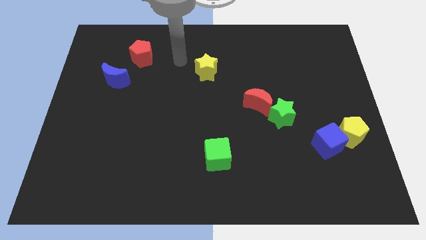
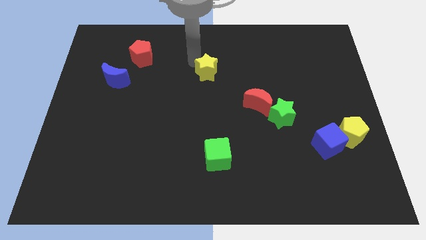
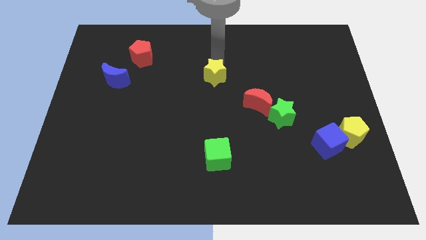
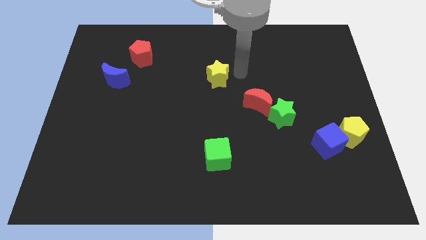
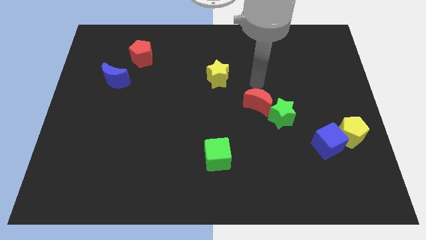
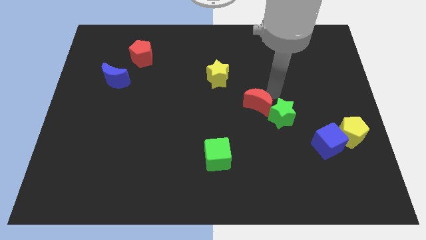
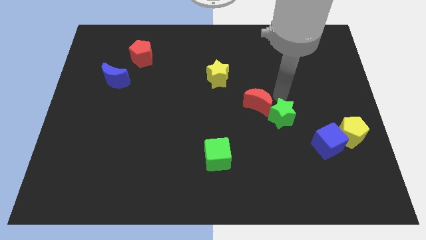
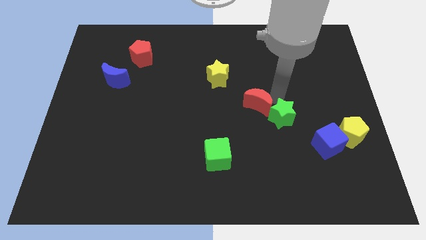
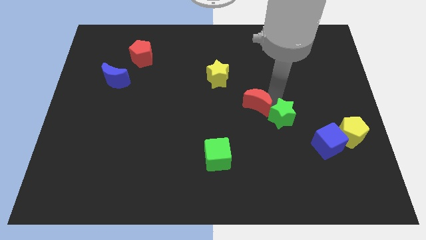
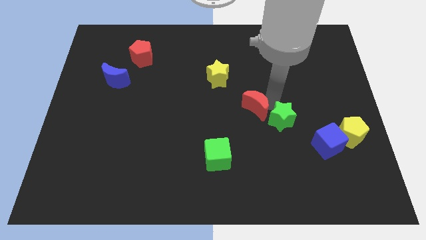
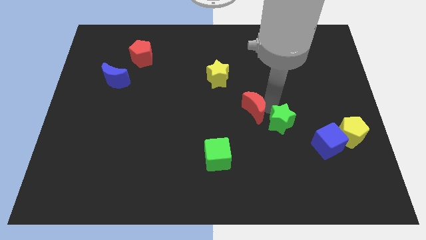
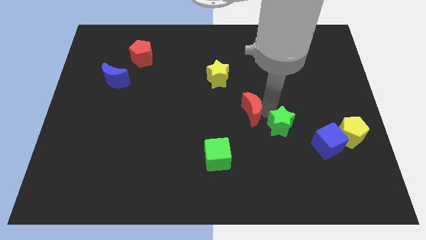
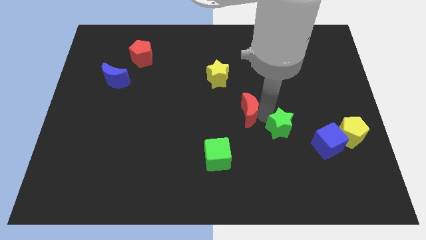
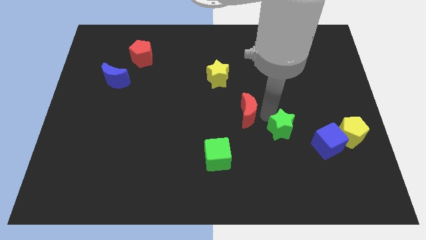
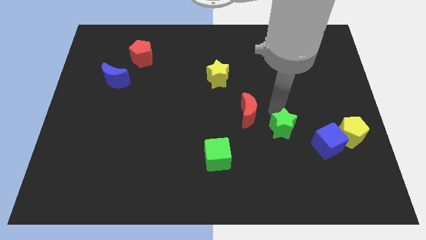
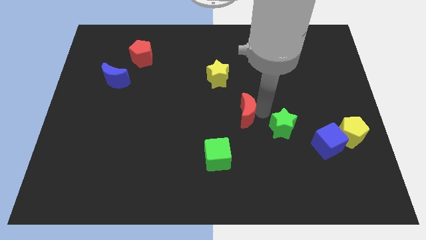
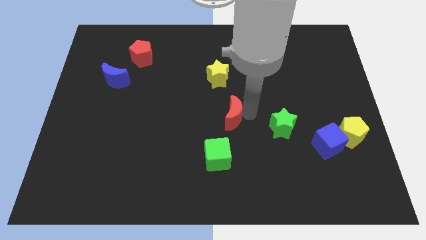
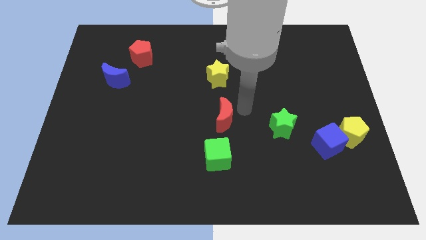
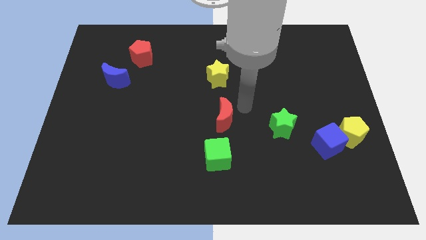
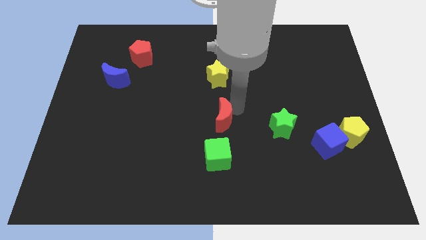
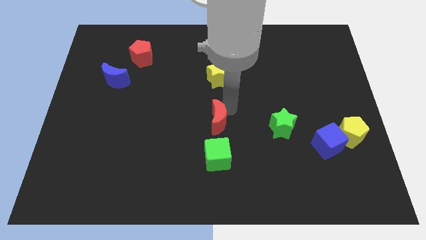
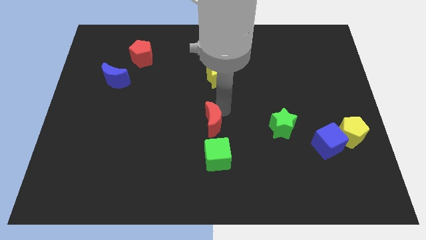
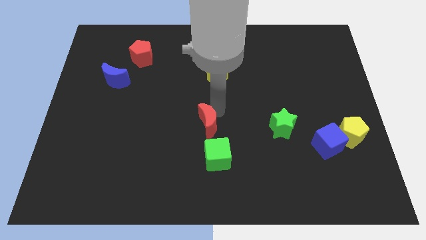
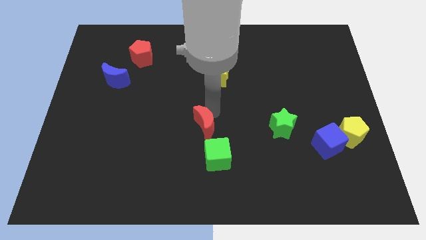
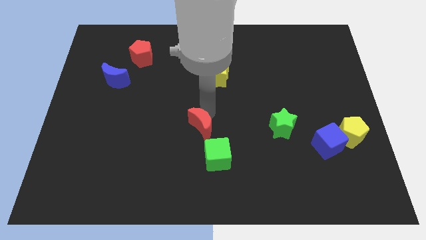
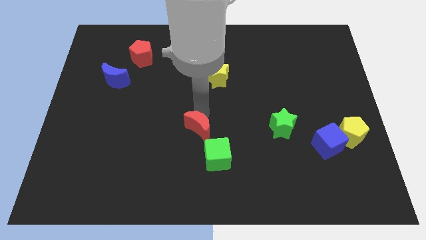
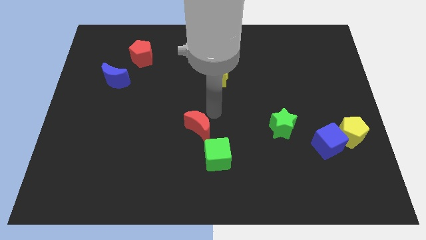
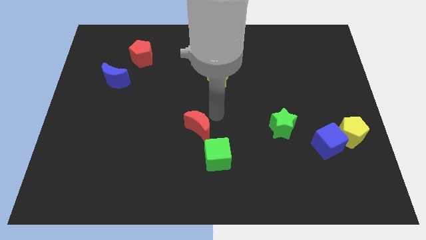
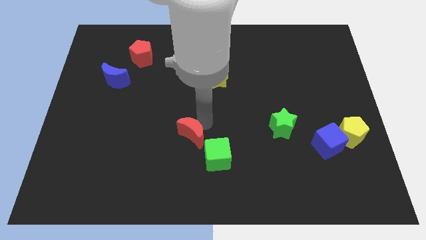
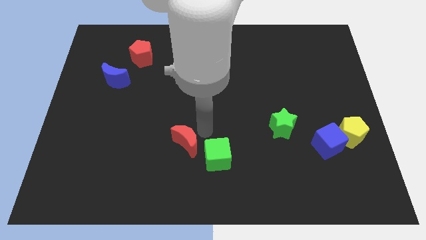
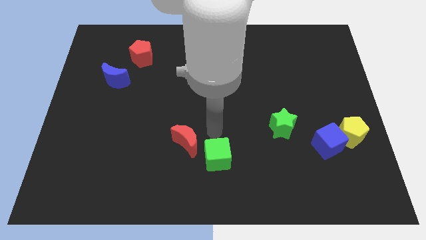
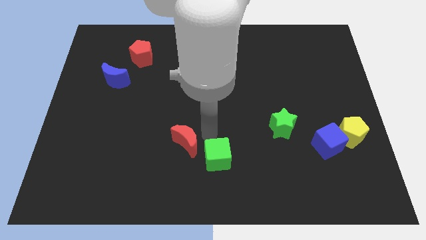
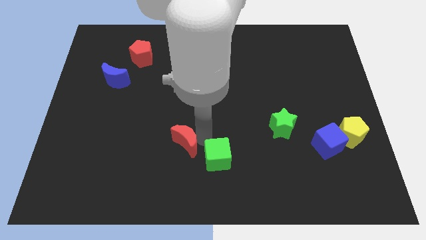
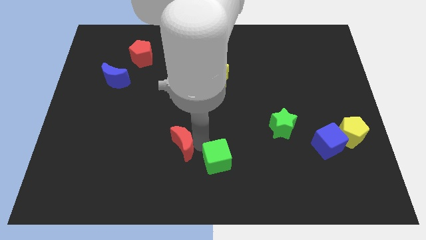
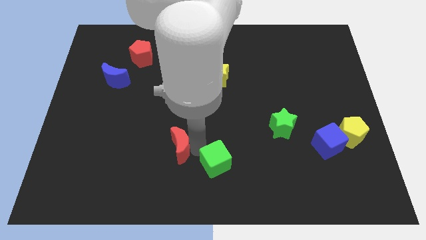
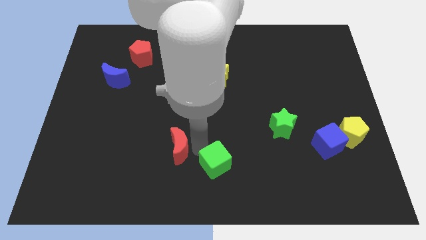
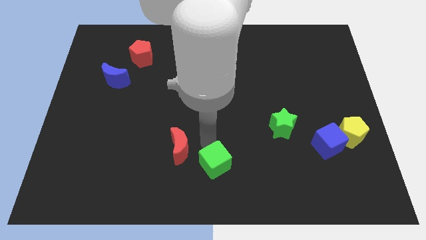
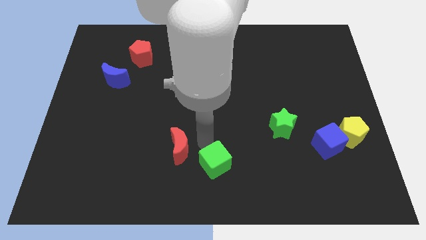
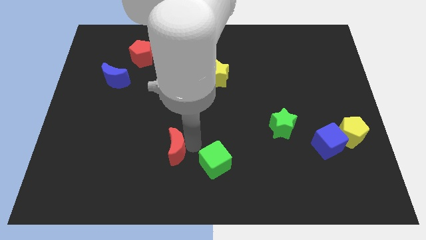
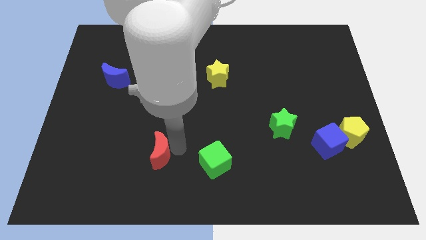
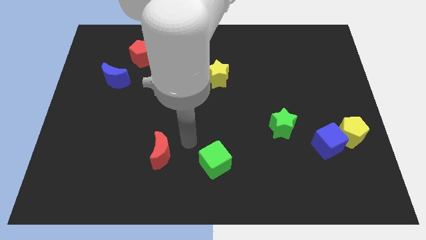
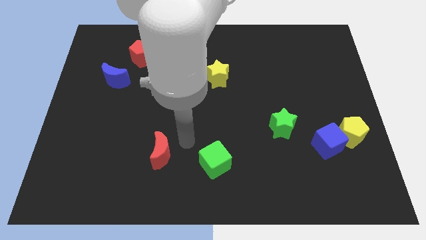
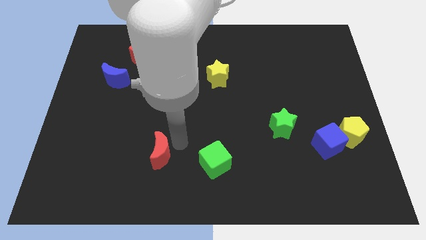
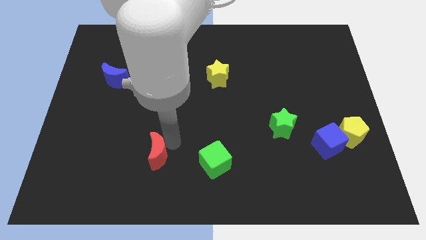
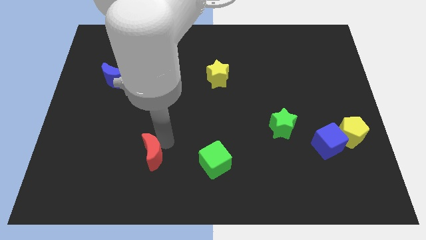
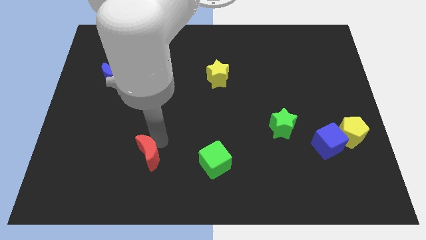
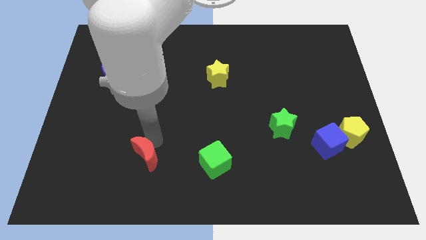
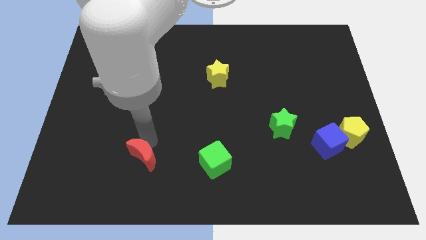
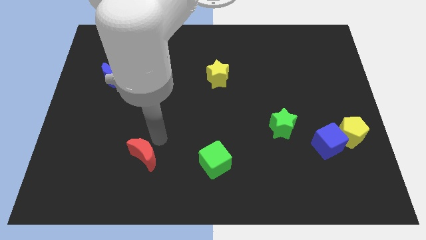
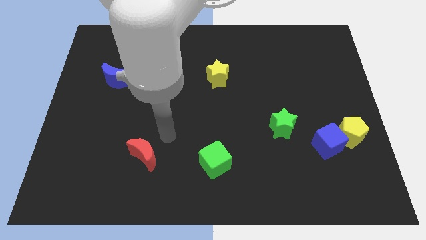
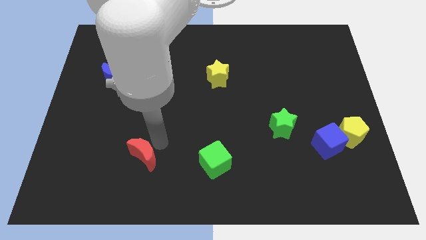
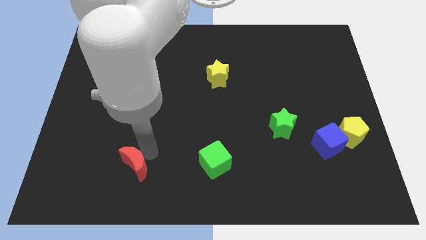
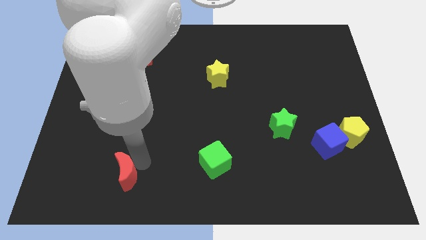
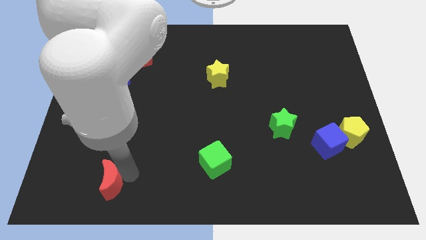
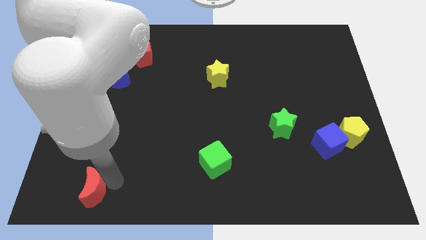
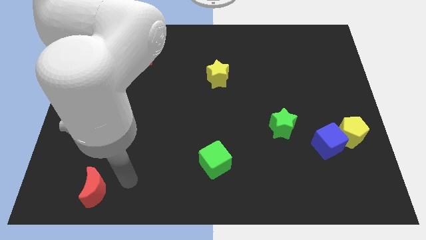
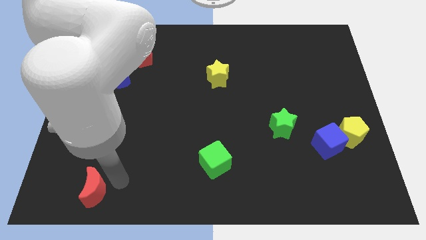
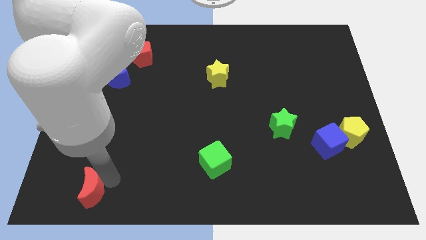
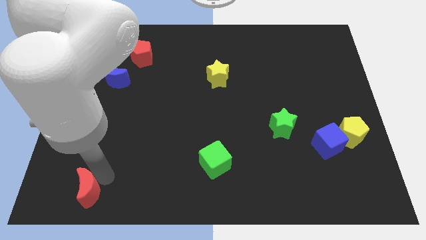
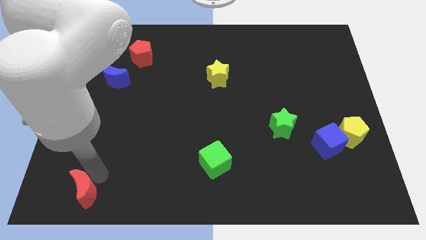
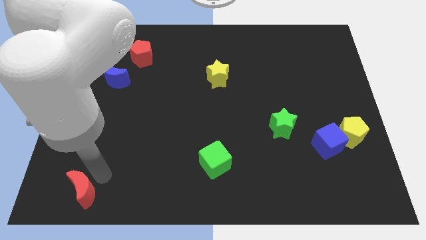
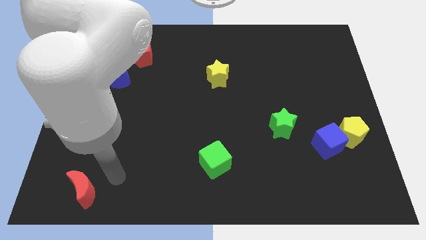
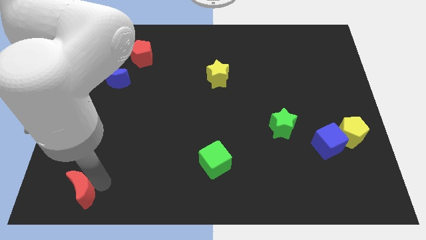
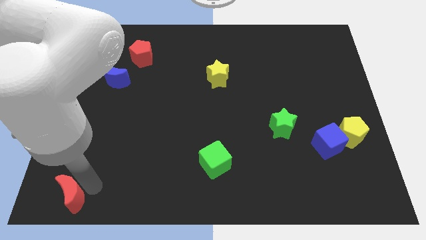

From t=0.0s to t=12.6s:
put the red moon to the bottom left

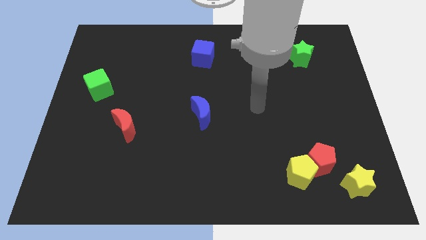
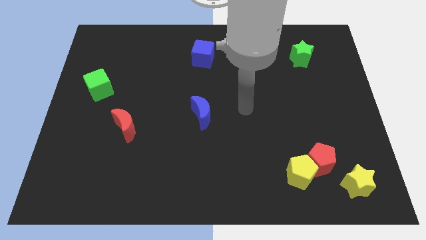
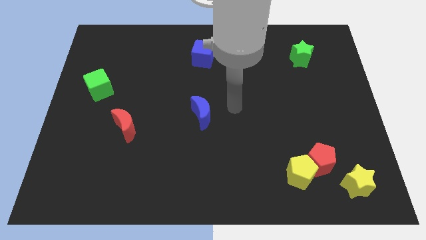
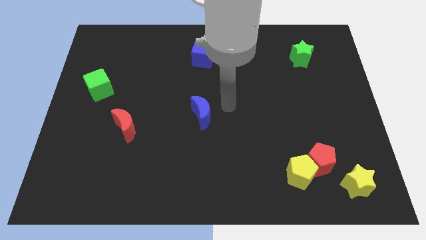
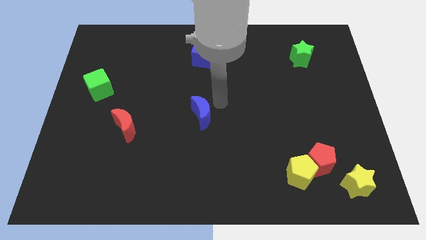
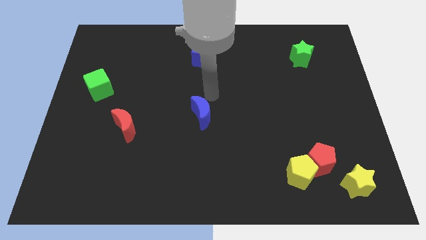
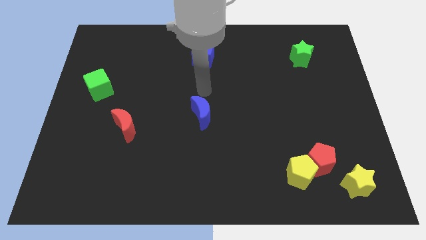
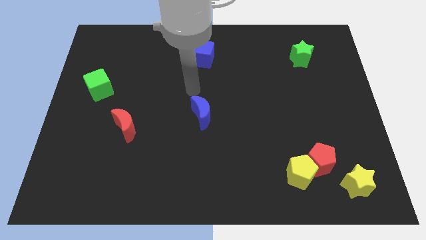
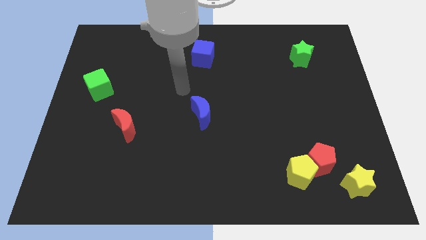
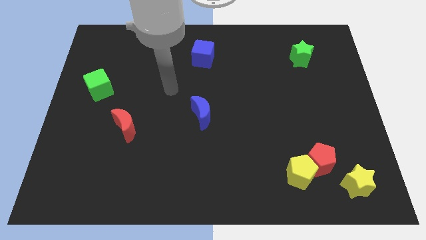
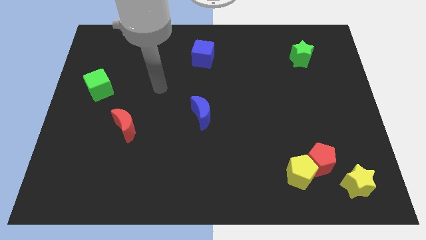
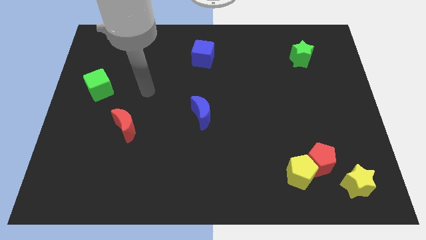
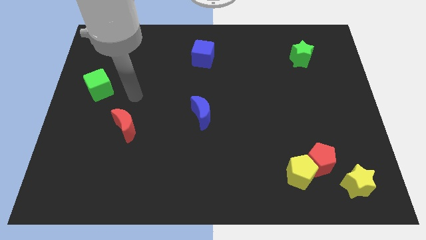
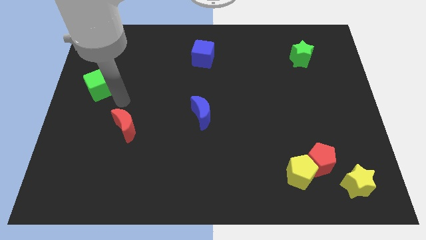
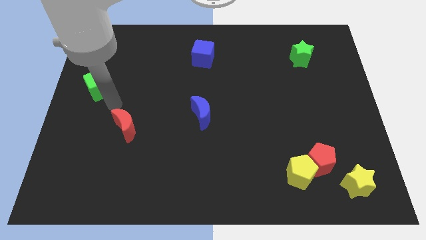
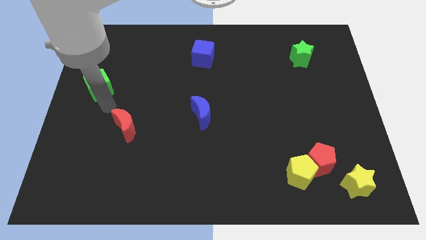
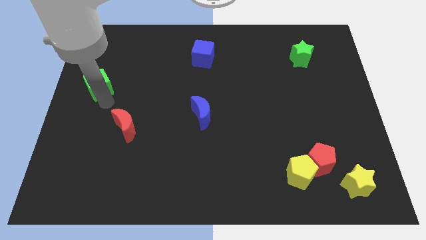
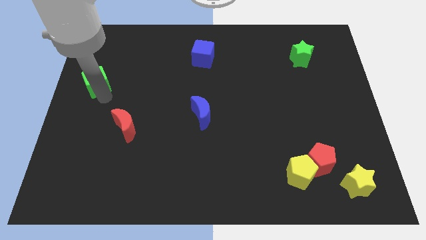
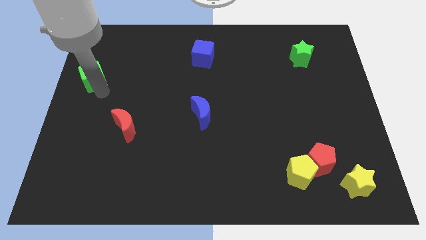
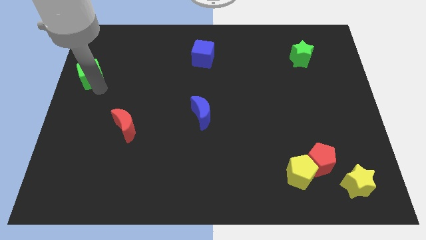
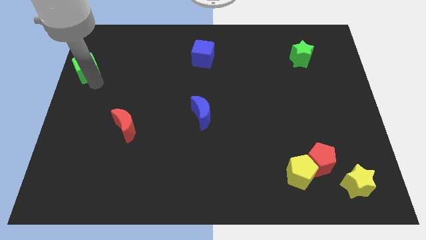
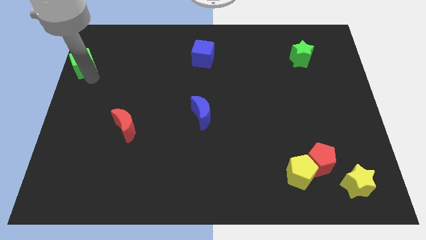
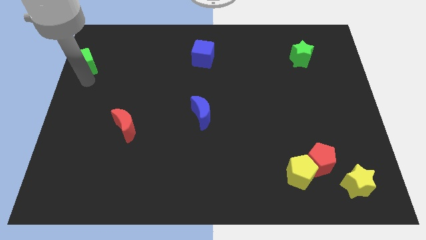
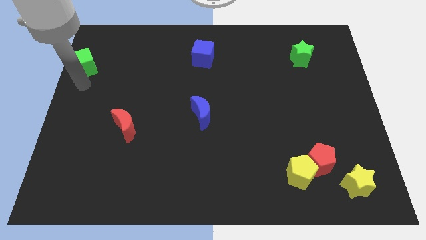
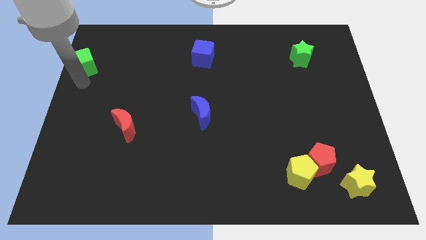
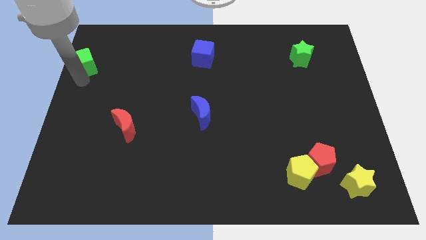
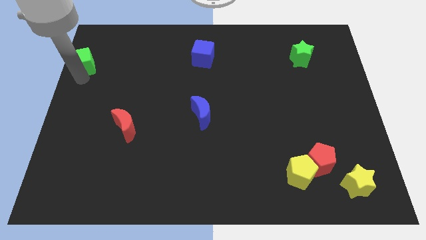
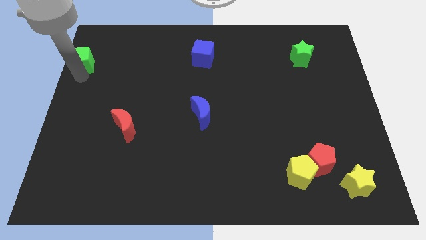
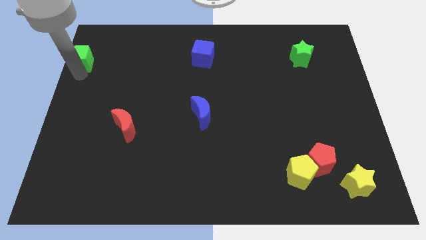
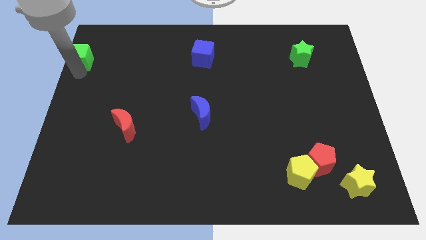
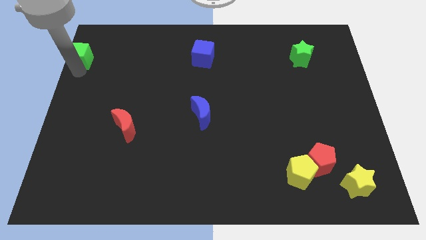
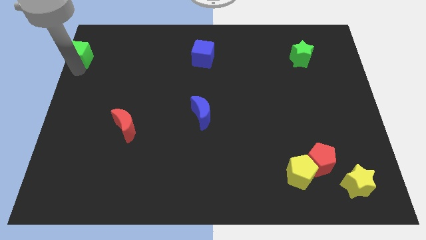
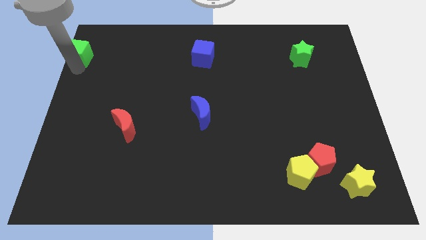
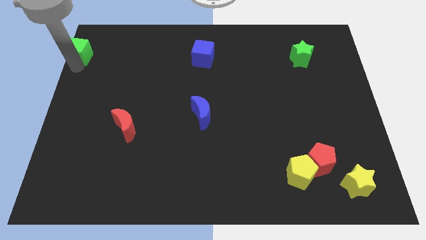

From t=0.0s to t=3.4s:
put the green cube to the top left corner
